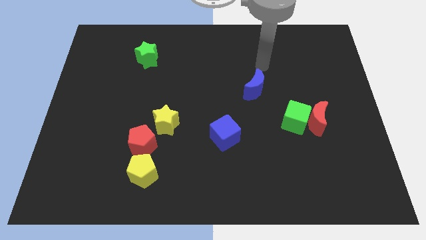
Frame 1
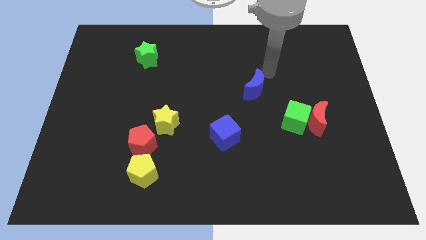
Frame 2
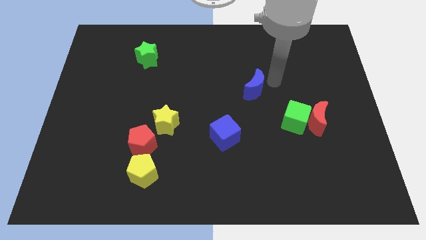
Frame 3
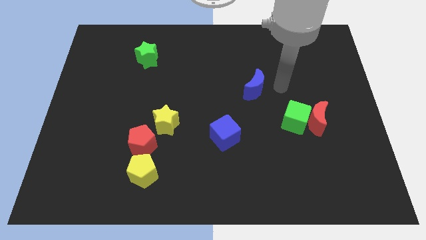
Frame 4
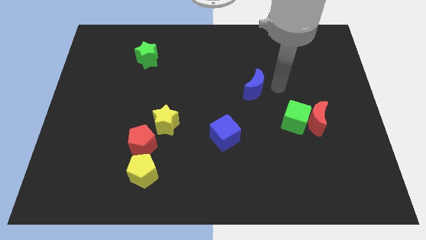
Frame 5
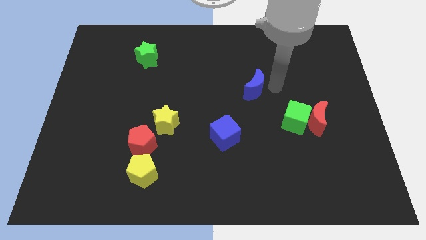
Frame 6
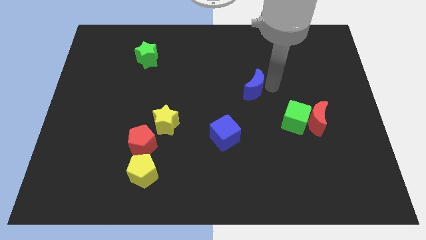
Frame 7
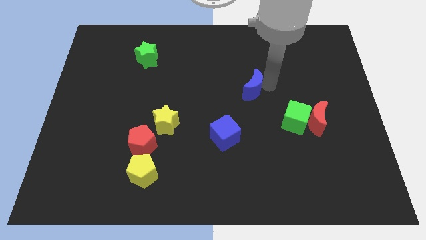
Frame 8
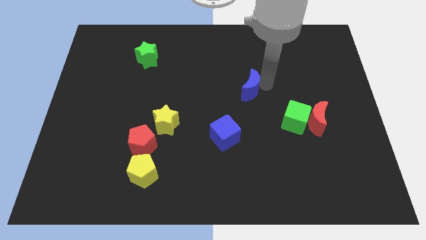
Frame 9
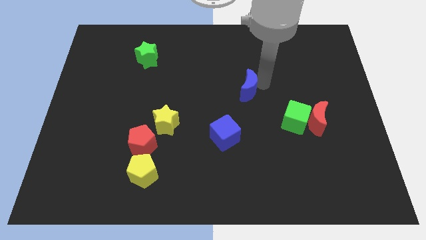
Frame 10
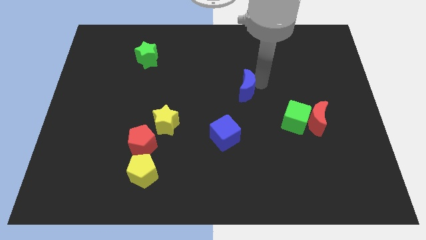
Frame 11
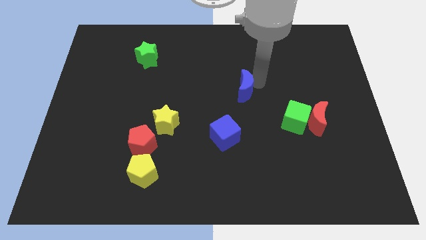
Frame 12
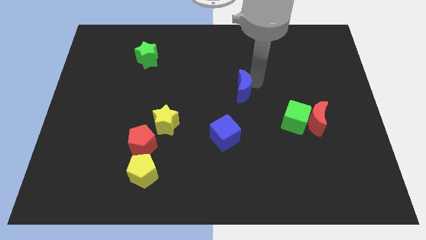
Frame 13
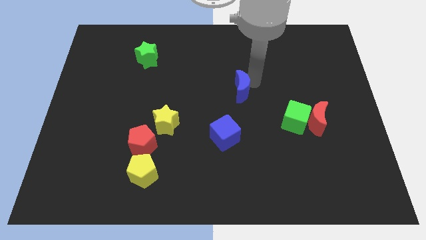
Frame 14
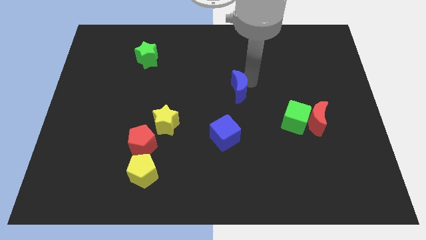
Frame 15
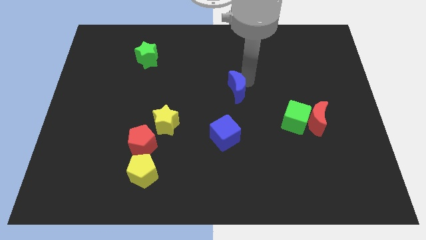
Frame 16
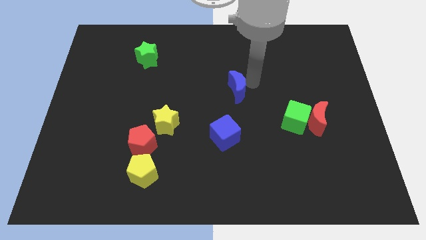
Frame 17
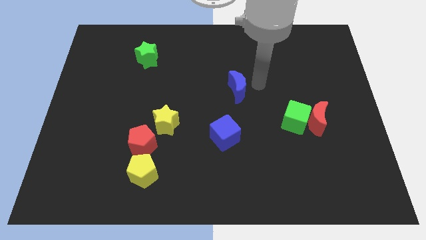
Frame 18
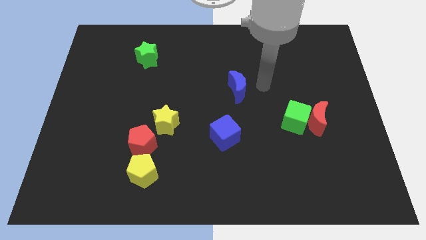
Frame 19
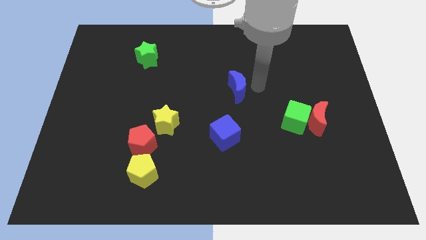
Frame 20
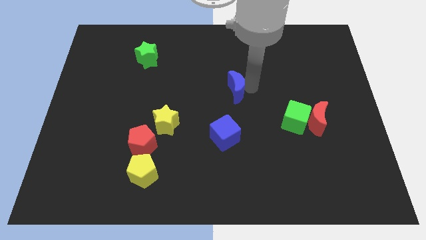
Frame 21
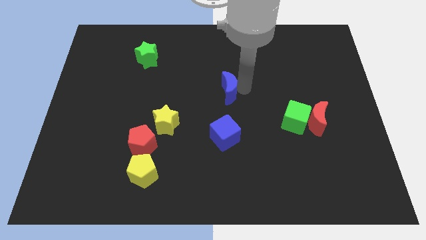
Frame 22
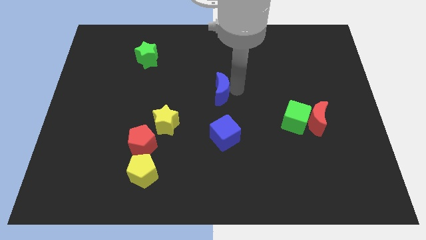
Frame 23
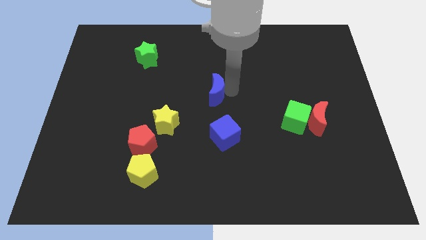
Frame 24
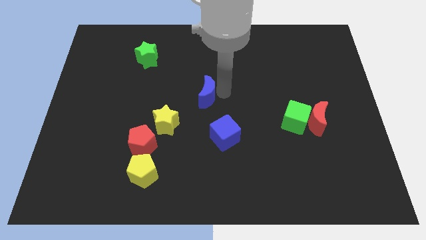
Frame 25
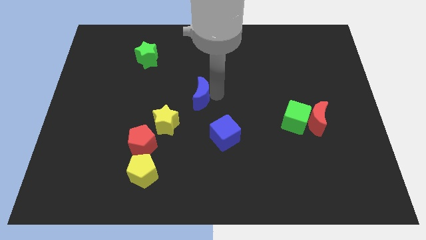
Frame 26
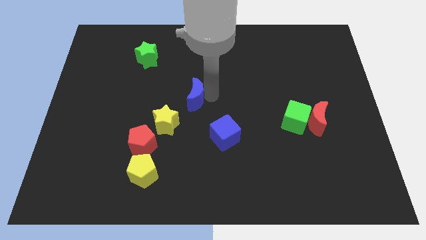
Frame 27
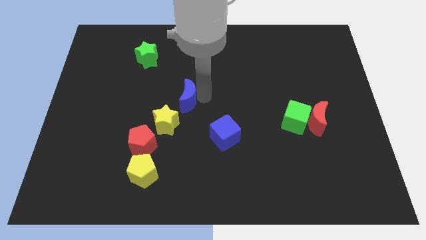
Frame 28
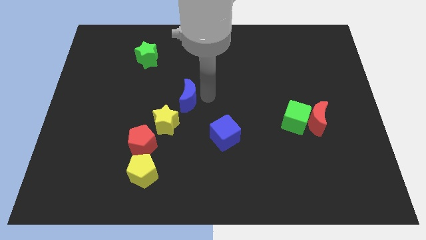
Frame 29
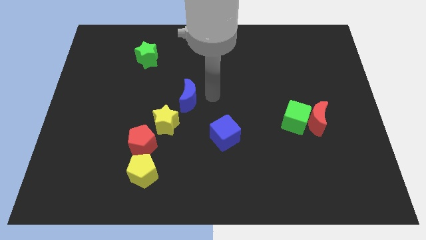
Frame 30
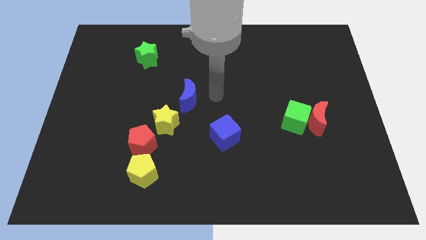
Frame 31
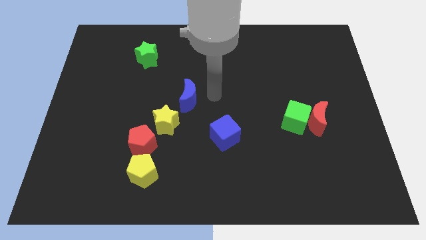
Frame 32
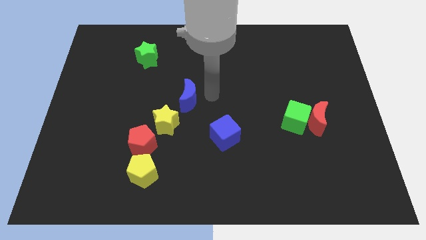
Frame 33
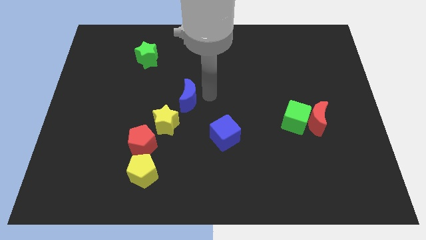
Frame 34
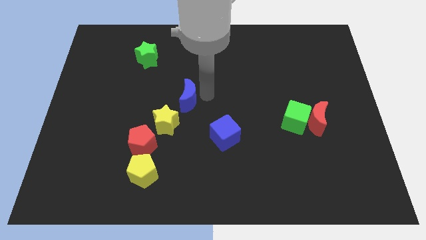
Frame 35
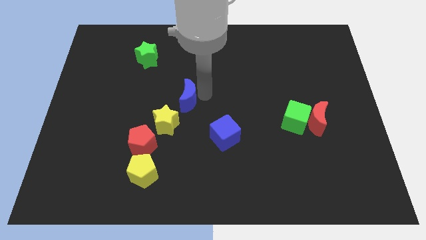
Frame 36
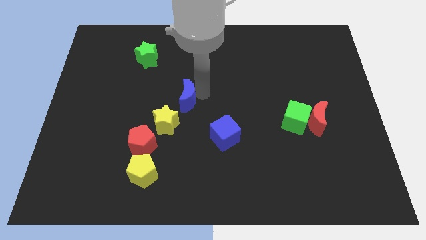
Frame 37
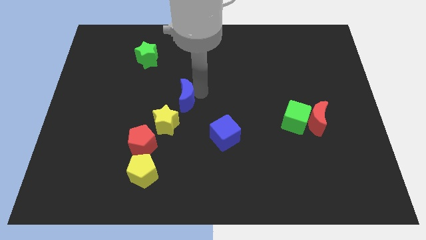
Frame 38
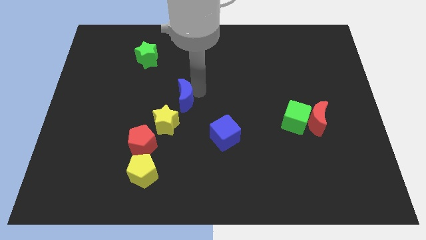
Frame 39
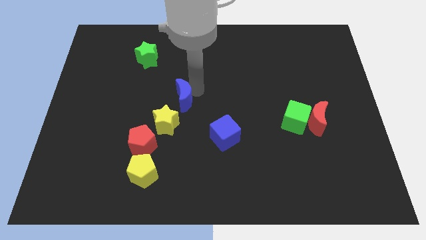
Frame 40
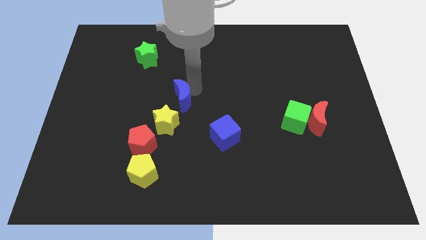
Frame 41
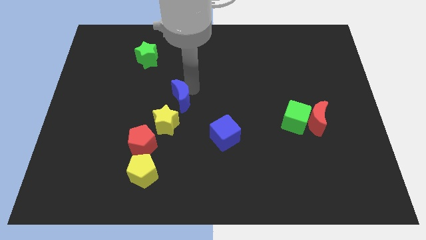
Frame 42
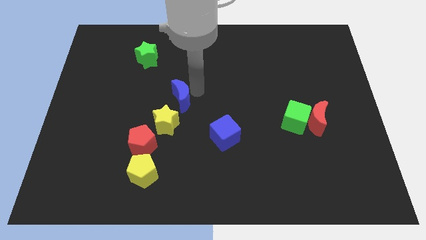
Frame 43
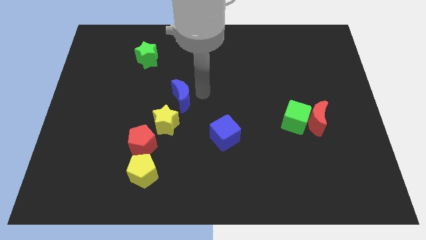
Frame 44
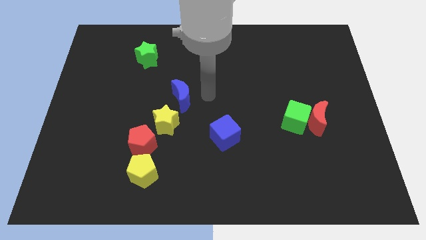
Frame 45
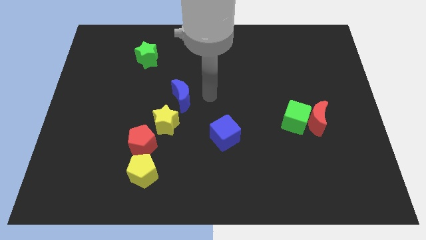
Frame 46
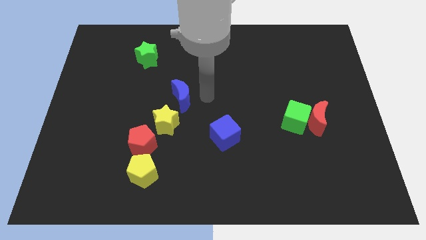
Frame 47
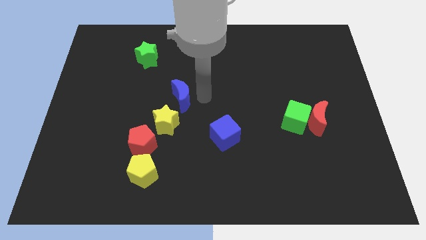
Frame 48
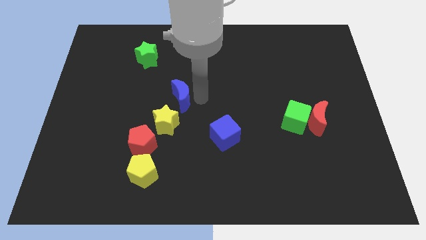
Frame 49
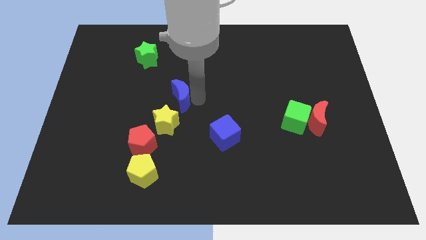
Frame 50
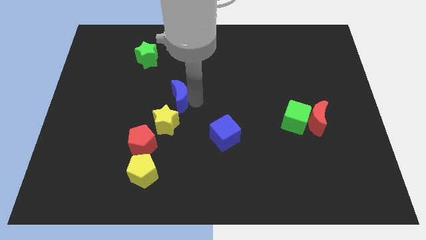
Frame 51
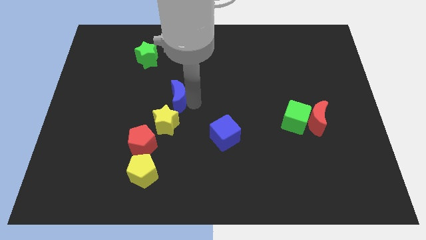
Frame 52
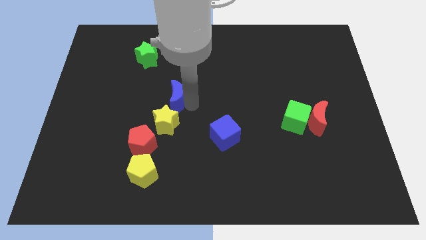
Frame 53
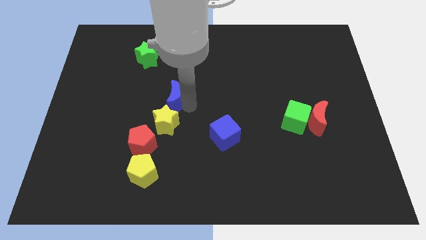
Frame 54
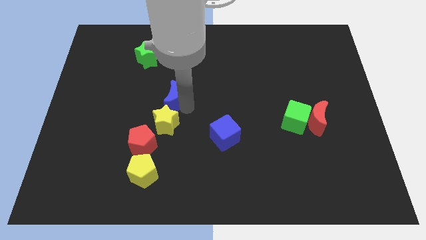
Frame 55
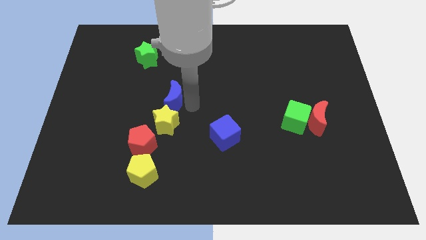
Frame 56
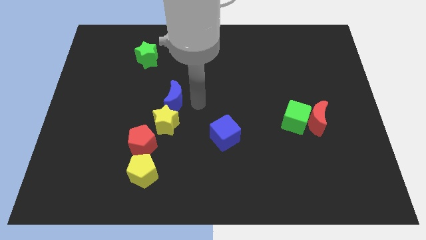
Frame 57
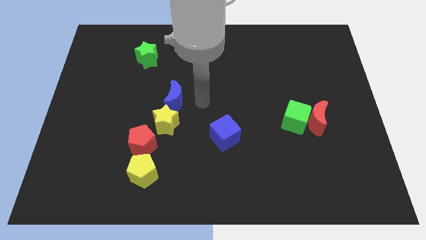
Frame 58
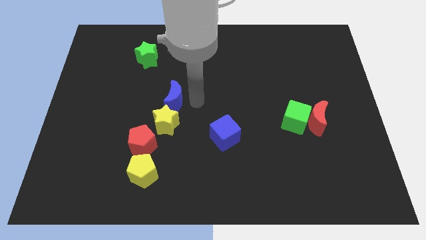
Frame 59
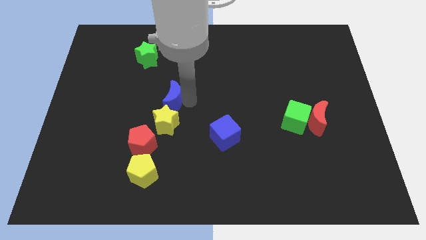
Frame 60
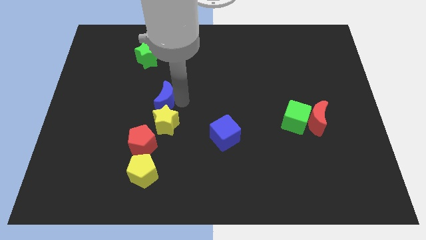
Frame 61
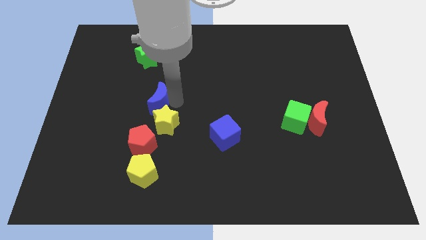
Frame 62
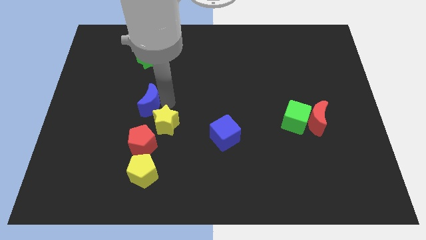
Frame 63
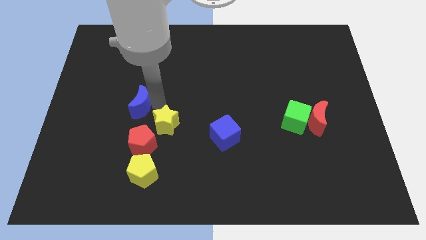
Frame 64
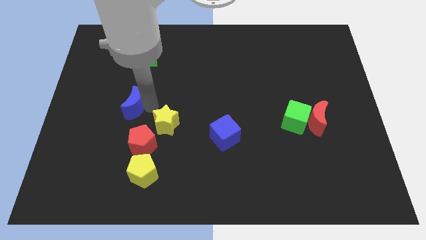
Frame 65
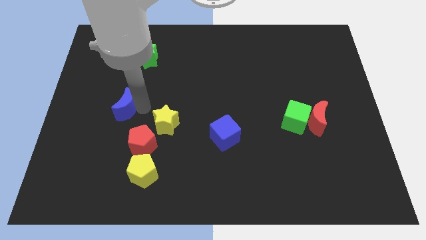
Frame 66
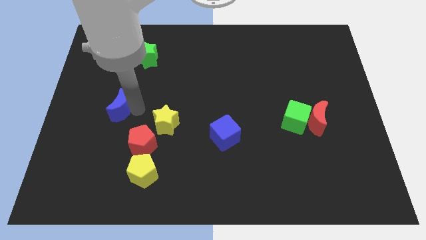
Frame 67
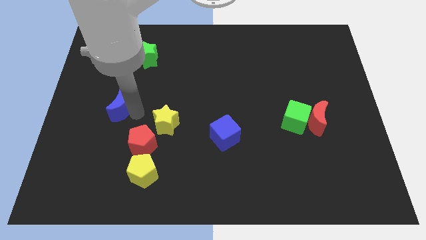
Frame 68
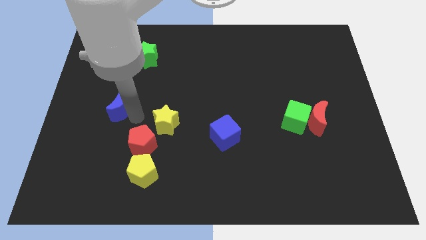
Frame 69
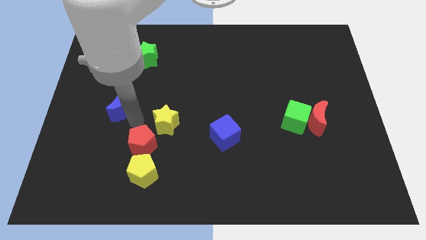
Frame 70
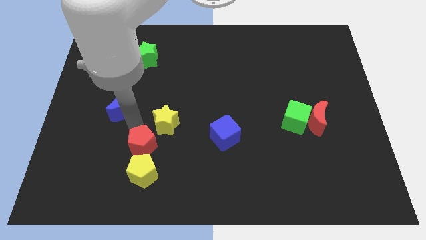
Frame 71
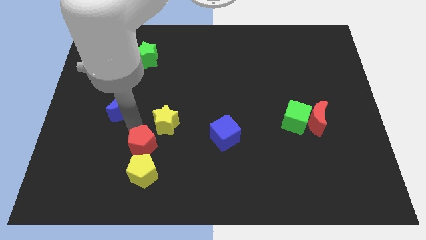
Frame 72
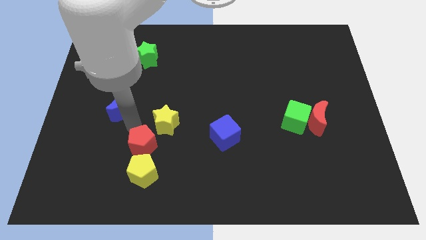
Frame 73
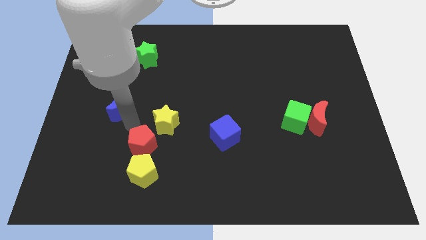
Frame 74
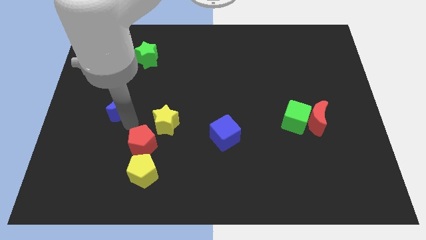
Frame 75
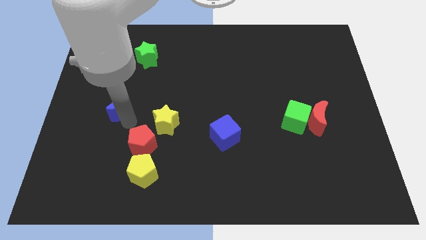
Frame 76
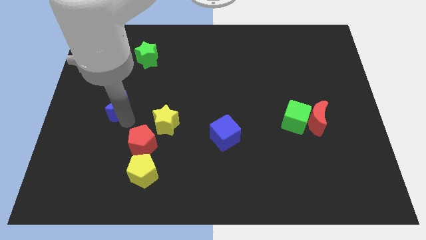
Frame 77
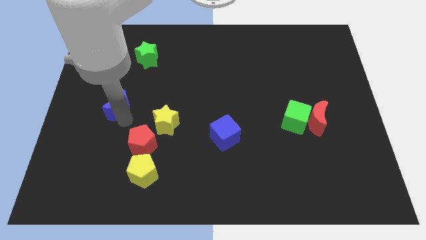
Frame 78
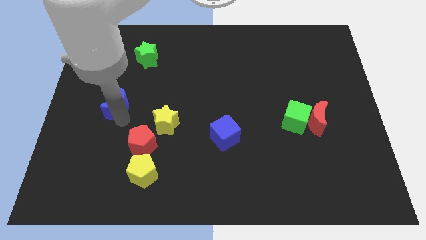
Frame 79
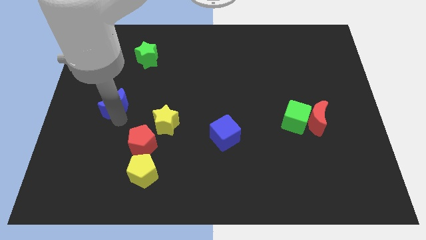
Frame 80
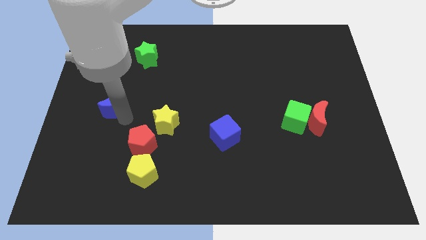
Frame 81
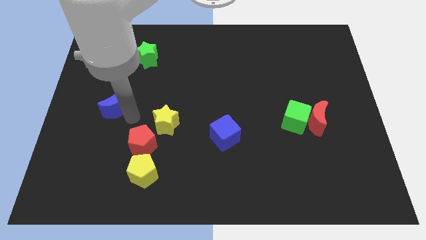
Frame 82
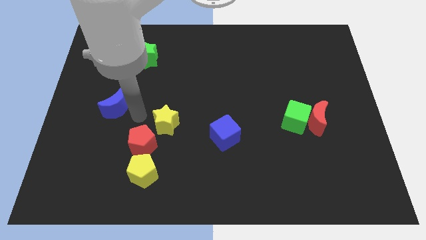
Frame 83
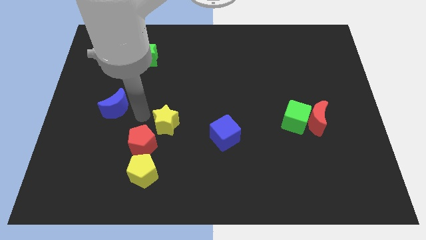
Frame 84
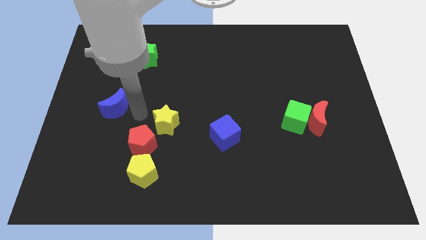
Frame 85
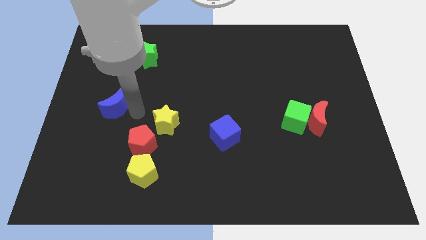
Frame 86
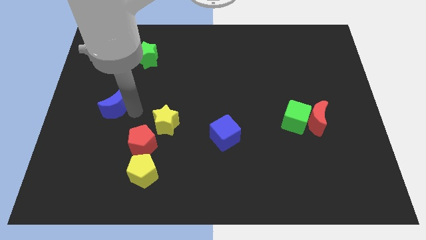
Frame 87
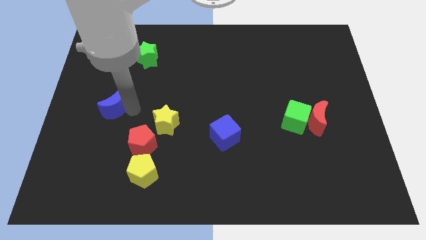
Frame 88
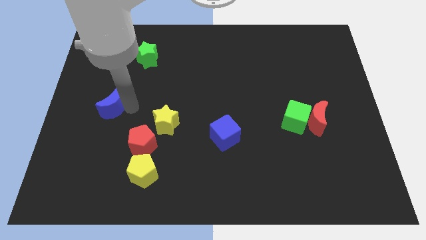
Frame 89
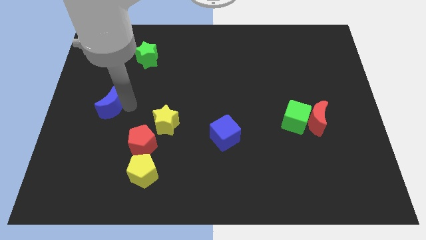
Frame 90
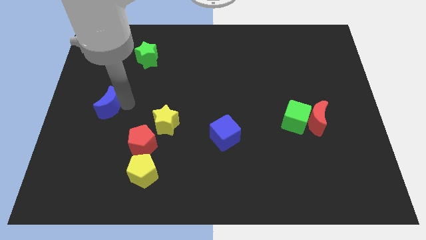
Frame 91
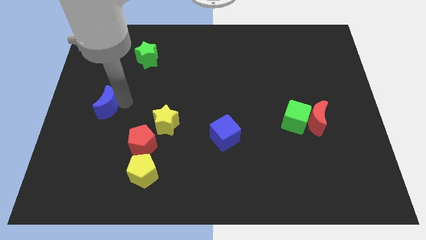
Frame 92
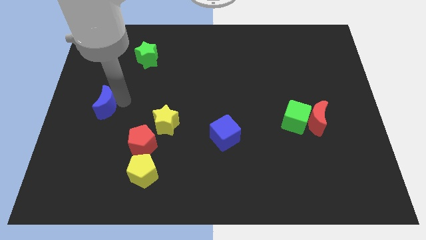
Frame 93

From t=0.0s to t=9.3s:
push the blue moon to the left side
